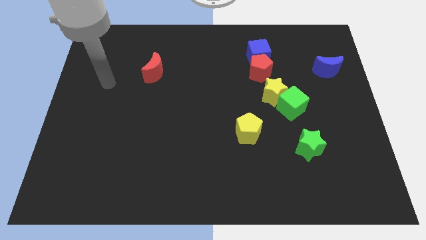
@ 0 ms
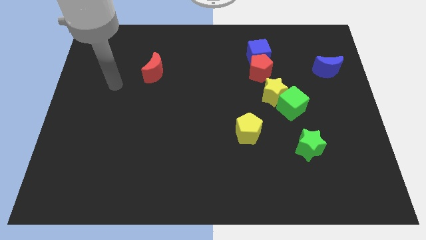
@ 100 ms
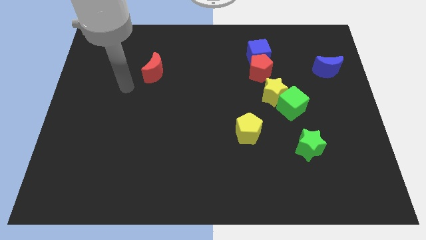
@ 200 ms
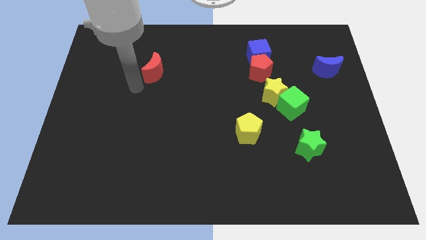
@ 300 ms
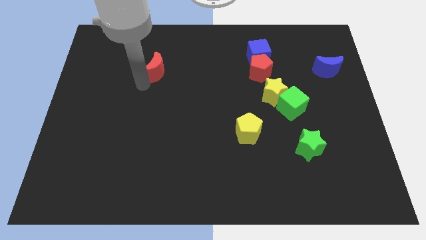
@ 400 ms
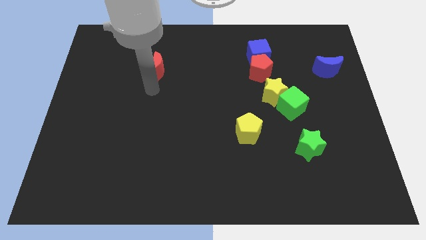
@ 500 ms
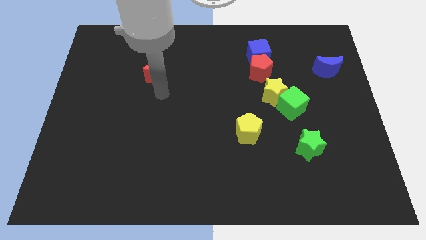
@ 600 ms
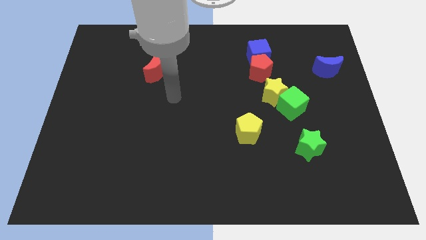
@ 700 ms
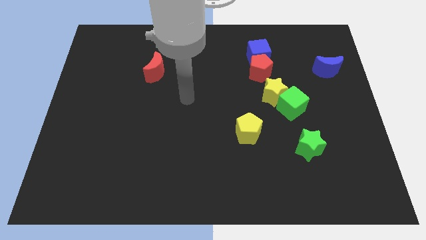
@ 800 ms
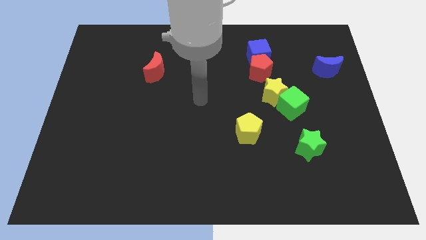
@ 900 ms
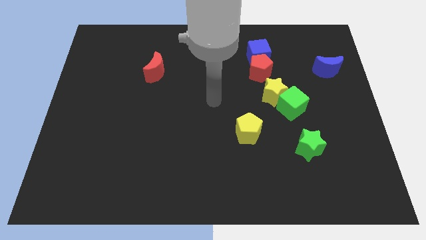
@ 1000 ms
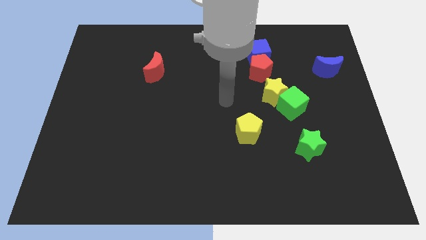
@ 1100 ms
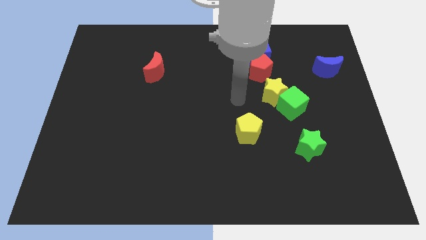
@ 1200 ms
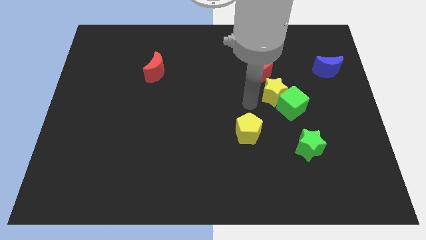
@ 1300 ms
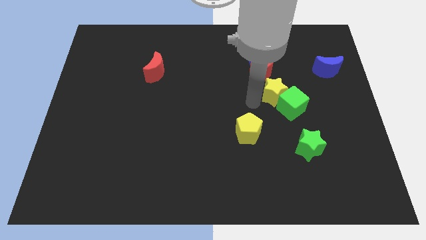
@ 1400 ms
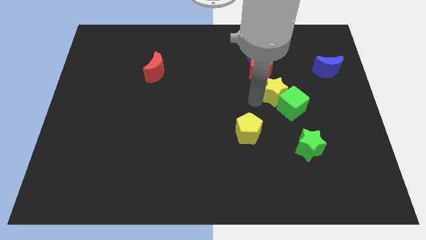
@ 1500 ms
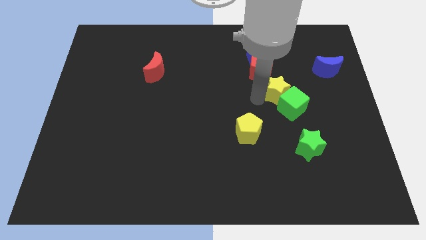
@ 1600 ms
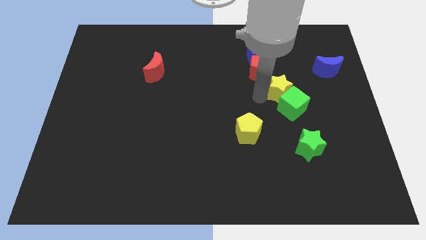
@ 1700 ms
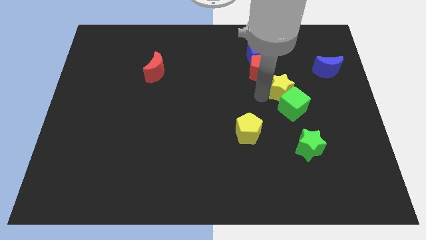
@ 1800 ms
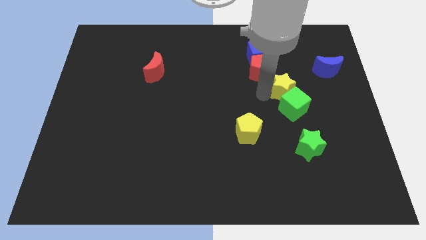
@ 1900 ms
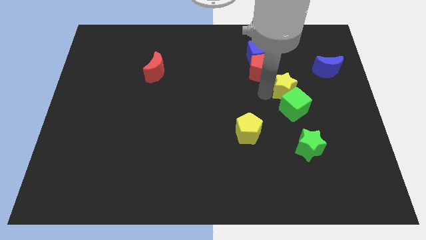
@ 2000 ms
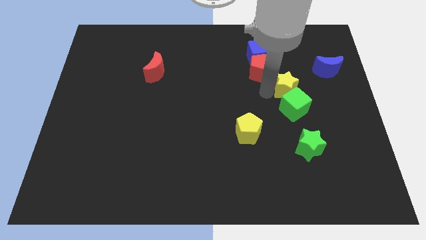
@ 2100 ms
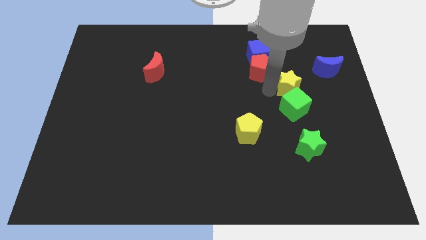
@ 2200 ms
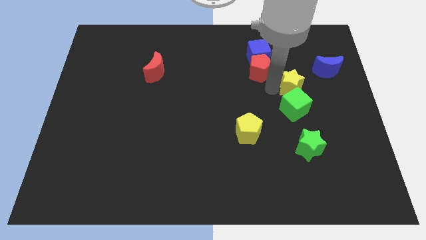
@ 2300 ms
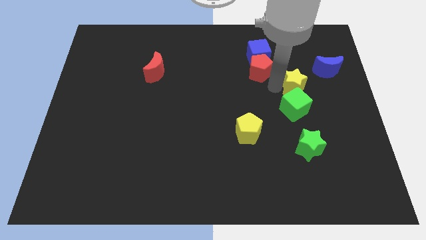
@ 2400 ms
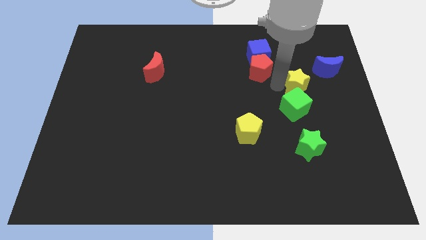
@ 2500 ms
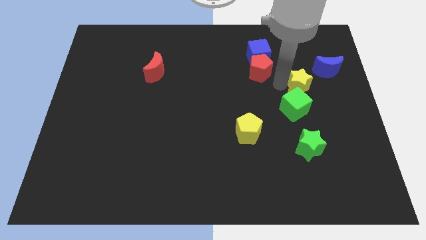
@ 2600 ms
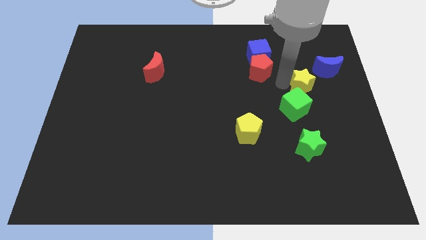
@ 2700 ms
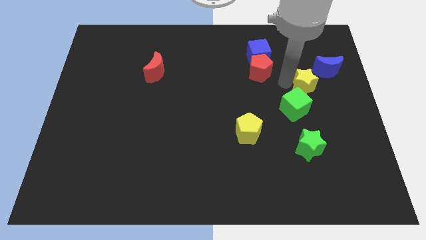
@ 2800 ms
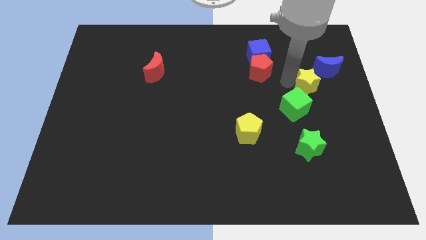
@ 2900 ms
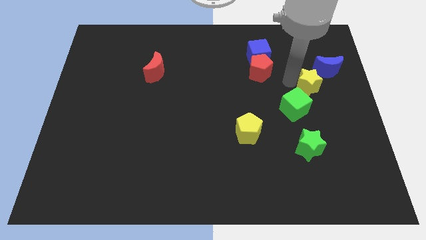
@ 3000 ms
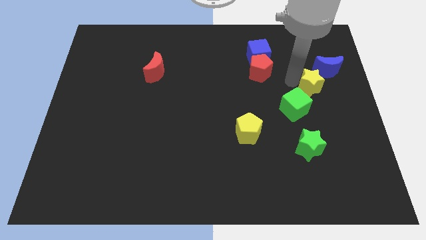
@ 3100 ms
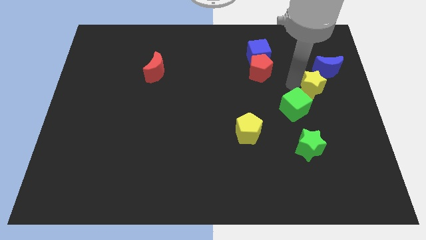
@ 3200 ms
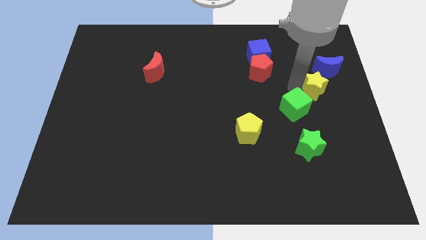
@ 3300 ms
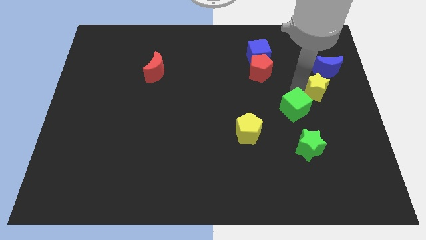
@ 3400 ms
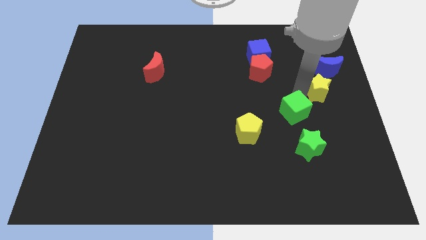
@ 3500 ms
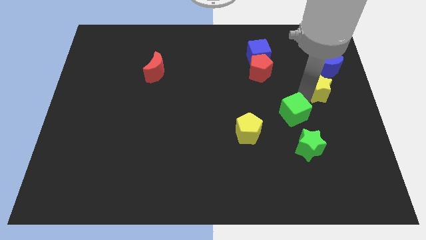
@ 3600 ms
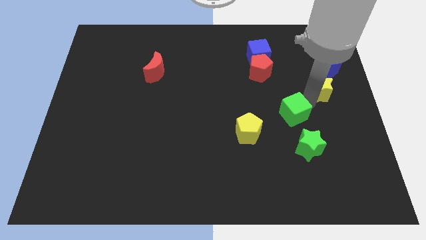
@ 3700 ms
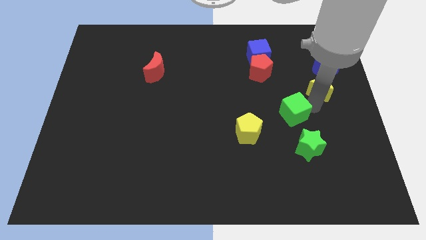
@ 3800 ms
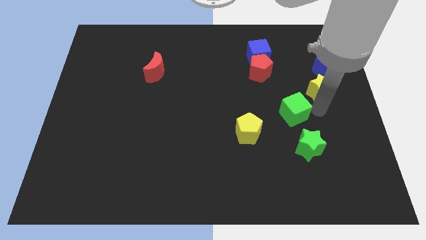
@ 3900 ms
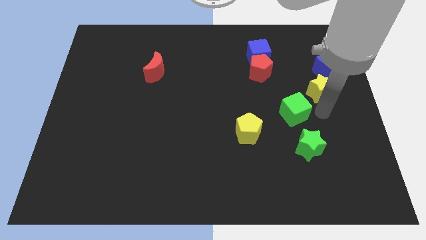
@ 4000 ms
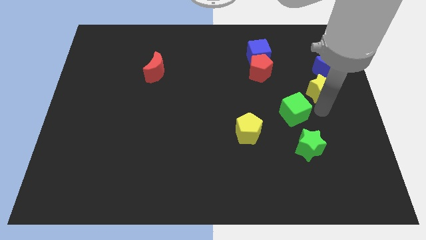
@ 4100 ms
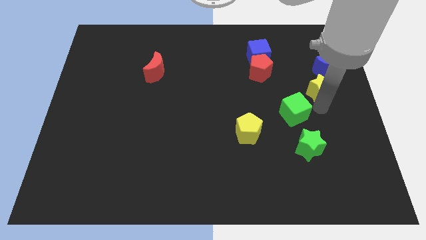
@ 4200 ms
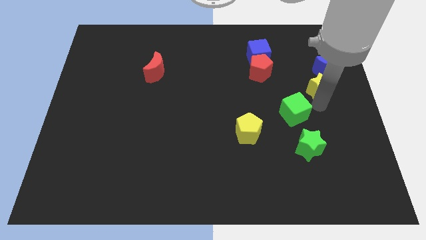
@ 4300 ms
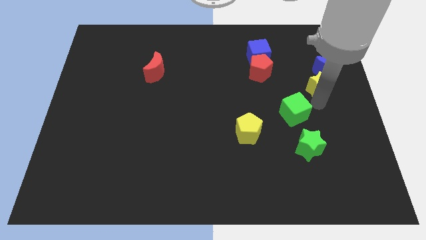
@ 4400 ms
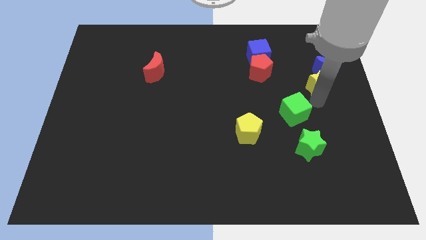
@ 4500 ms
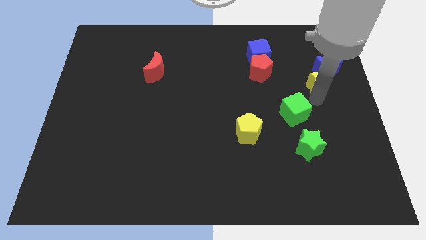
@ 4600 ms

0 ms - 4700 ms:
put the yellow star next to the blue moon

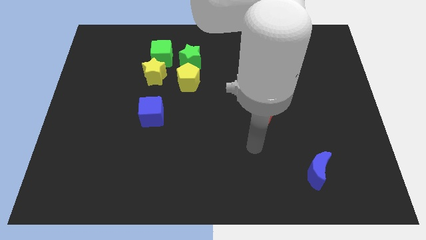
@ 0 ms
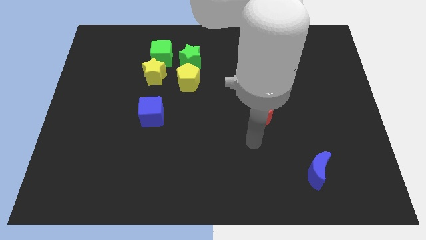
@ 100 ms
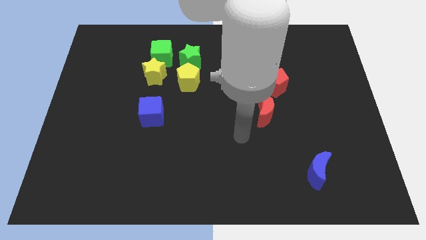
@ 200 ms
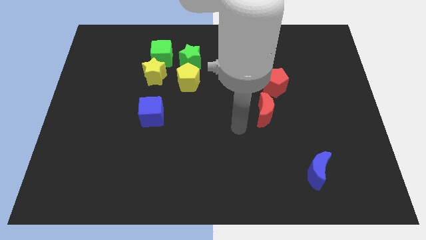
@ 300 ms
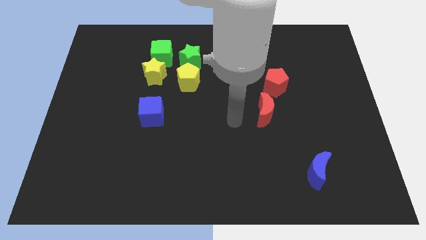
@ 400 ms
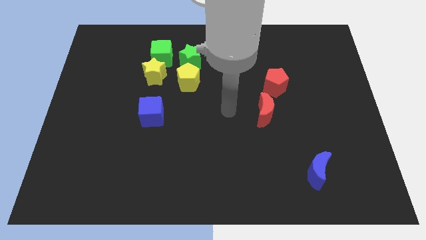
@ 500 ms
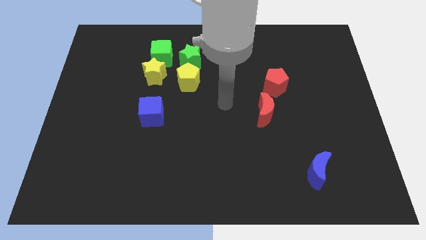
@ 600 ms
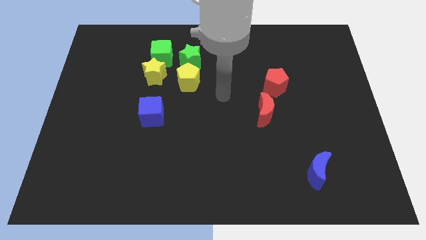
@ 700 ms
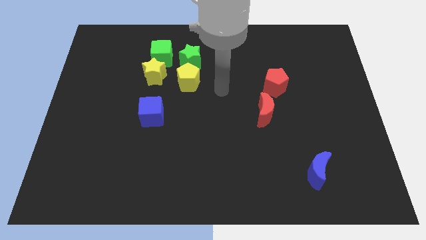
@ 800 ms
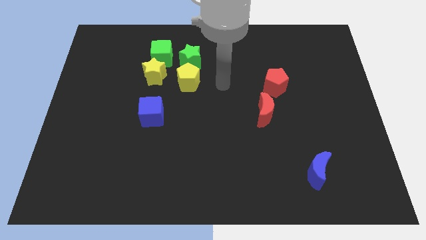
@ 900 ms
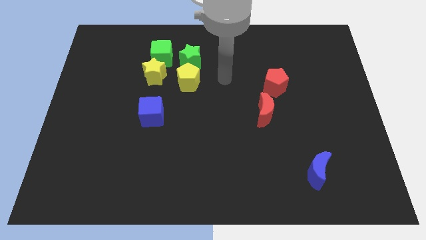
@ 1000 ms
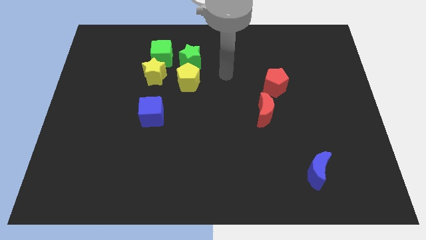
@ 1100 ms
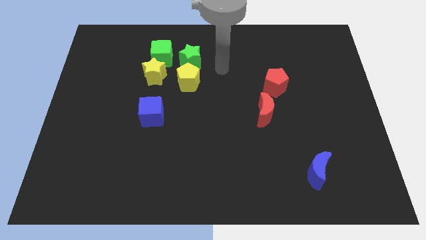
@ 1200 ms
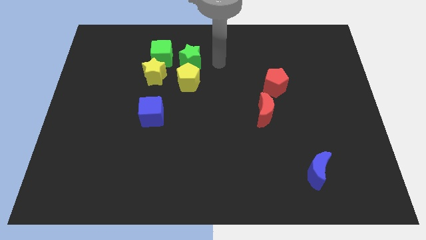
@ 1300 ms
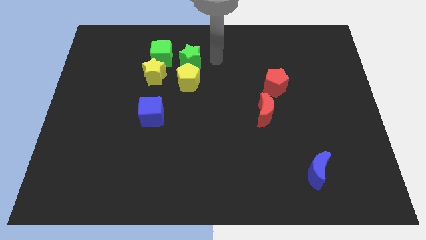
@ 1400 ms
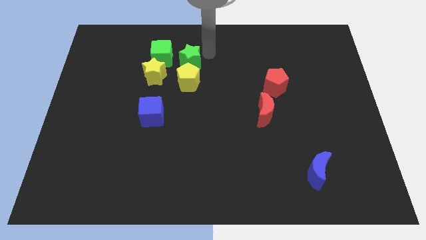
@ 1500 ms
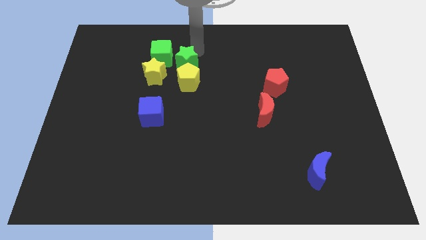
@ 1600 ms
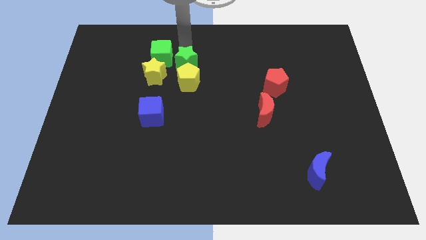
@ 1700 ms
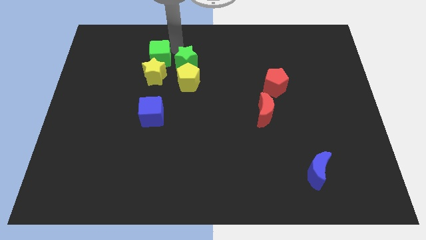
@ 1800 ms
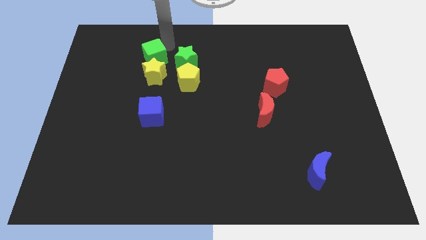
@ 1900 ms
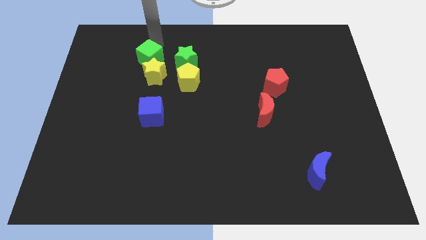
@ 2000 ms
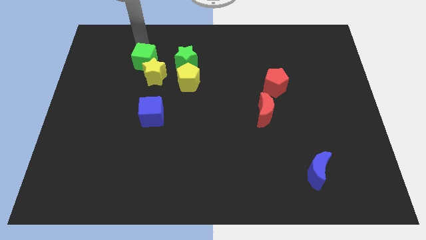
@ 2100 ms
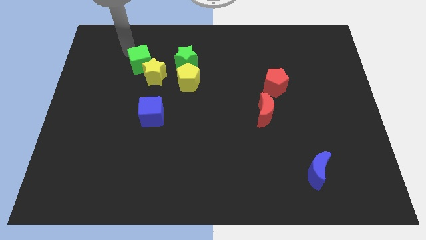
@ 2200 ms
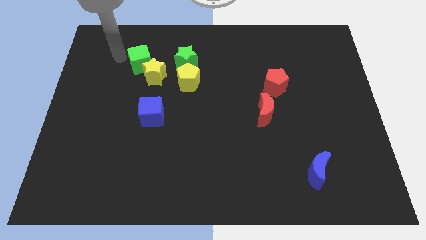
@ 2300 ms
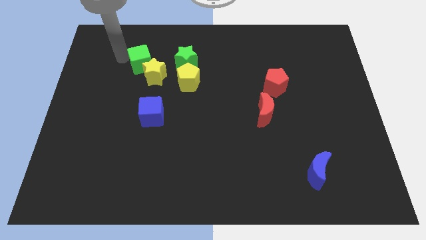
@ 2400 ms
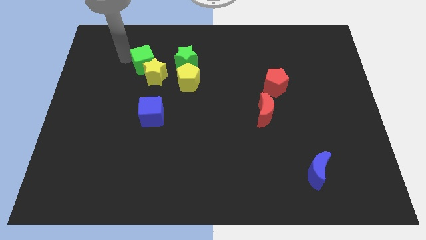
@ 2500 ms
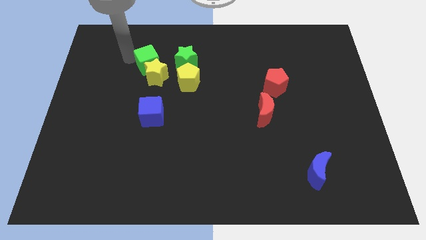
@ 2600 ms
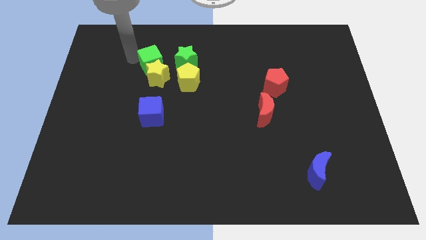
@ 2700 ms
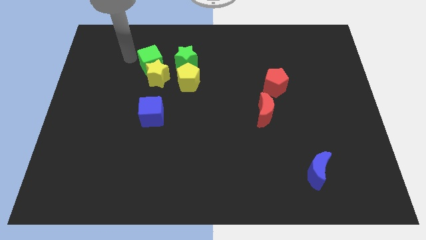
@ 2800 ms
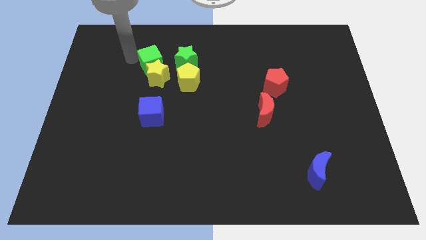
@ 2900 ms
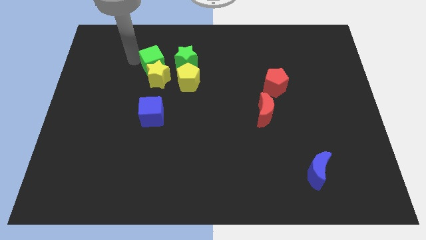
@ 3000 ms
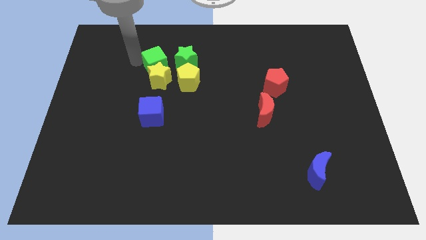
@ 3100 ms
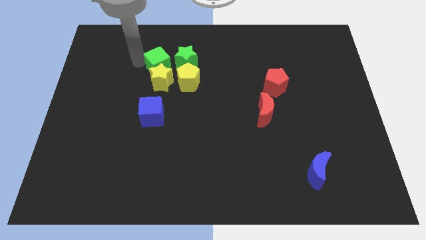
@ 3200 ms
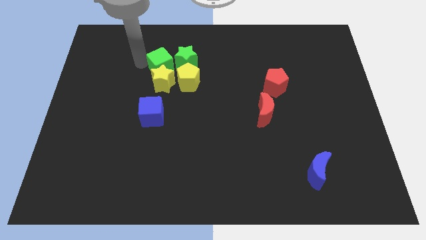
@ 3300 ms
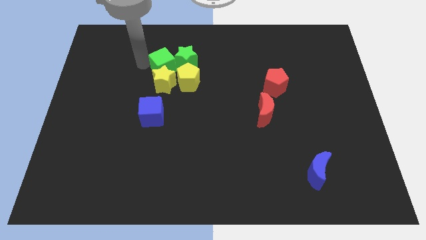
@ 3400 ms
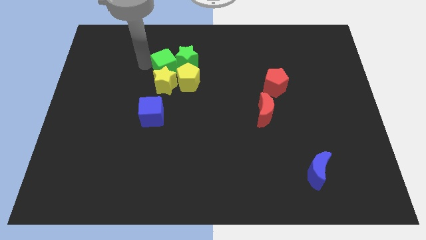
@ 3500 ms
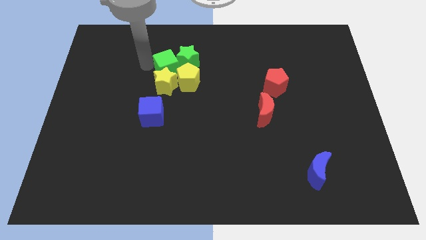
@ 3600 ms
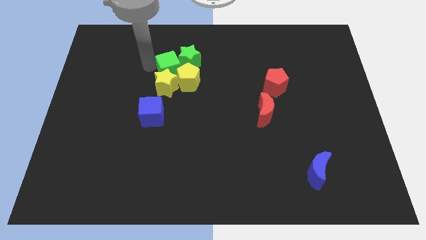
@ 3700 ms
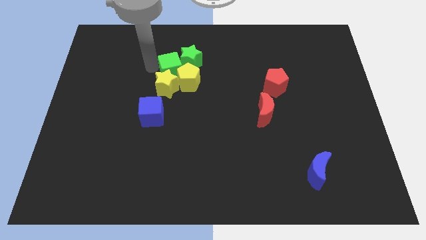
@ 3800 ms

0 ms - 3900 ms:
move the green cube to the yellow pentagon
